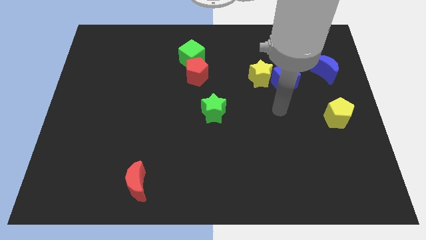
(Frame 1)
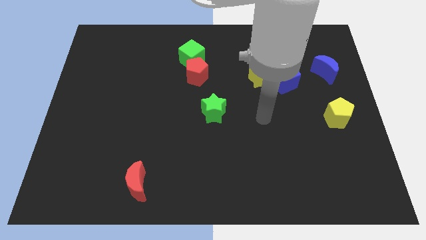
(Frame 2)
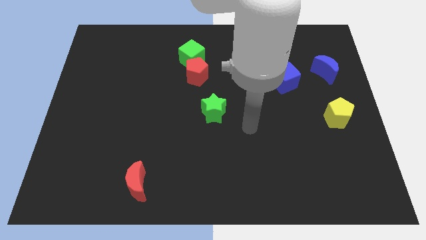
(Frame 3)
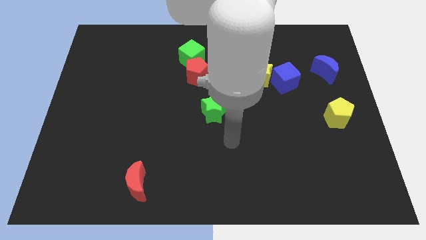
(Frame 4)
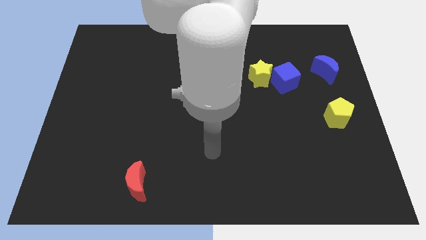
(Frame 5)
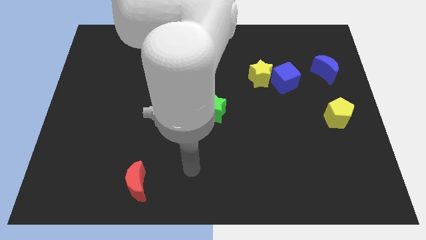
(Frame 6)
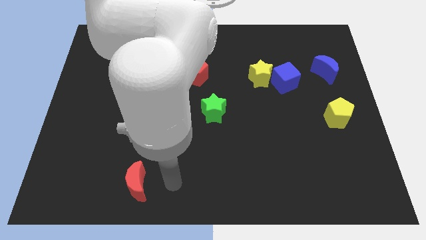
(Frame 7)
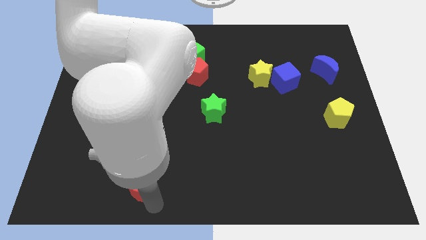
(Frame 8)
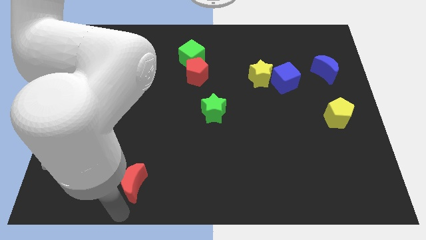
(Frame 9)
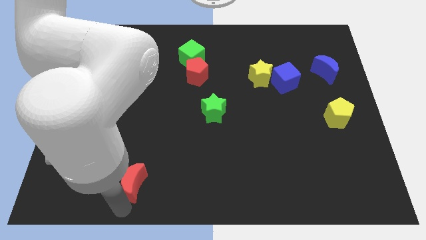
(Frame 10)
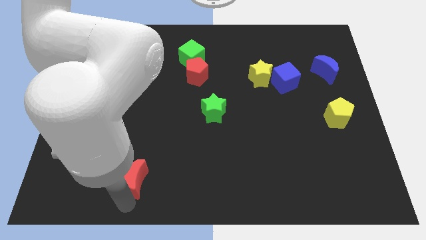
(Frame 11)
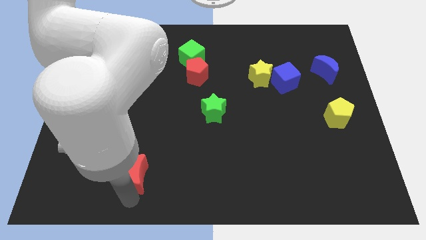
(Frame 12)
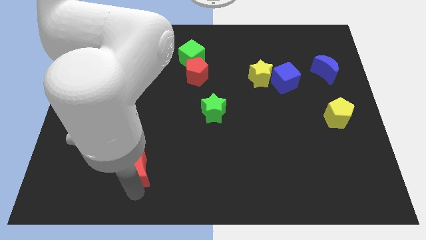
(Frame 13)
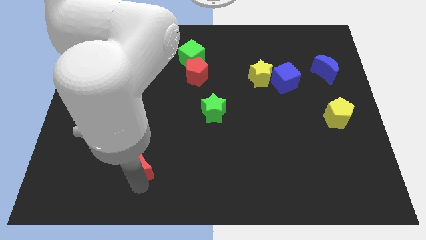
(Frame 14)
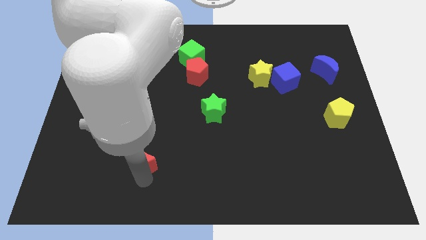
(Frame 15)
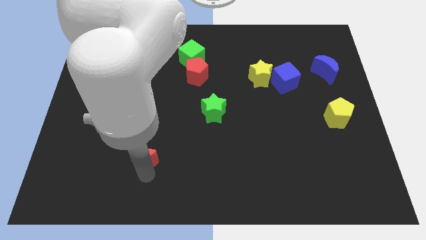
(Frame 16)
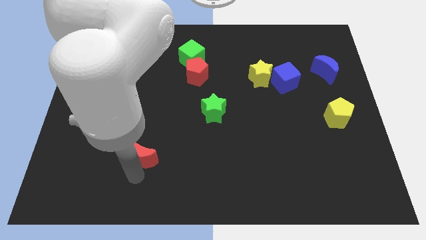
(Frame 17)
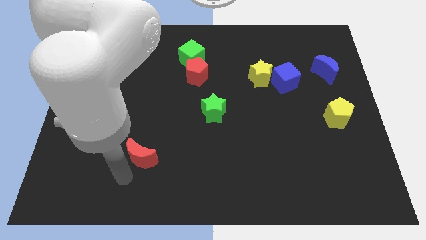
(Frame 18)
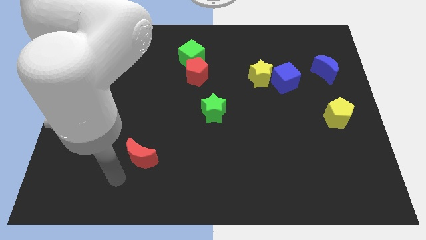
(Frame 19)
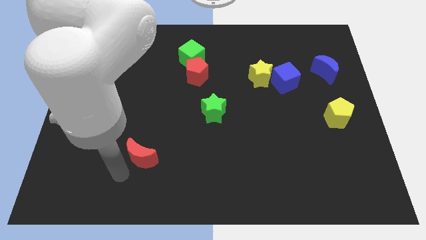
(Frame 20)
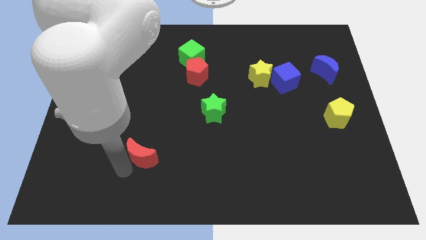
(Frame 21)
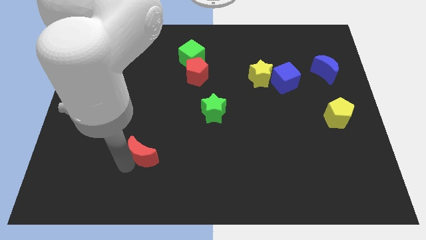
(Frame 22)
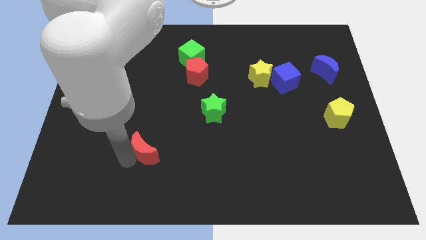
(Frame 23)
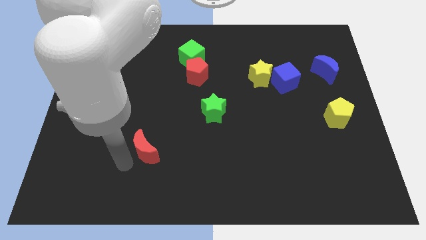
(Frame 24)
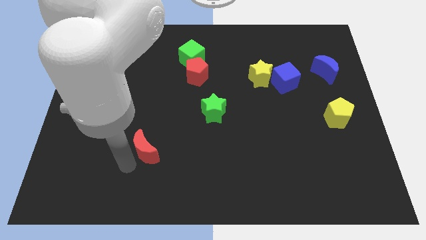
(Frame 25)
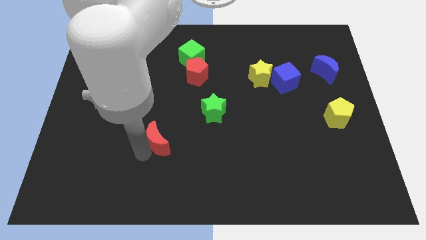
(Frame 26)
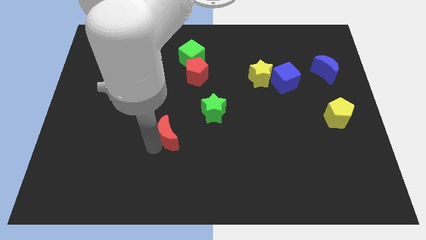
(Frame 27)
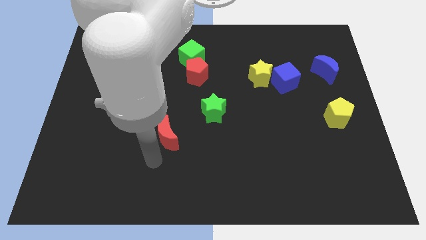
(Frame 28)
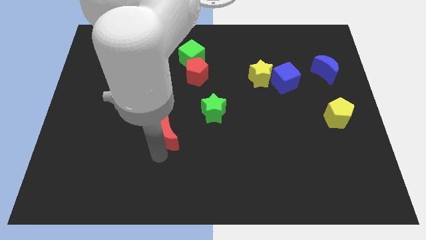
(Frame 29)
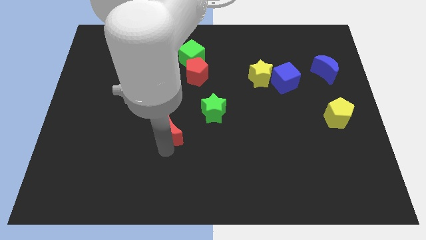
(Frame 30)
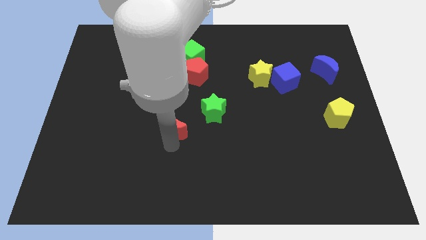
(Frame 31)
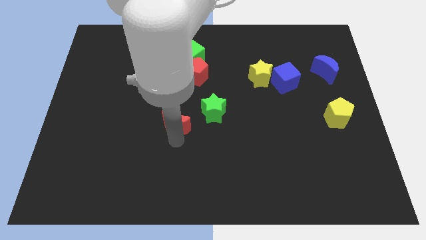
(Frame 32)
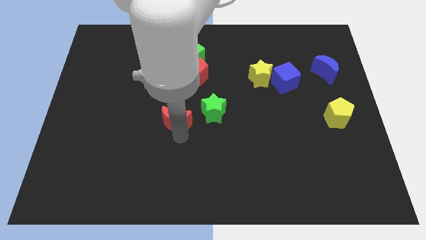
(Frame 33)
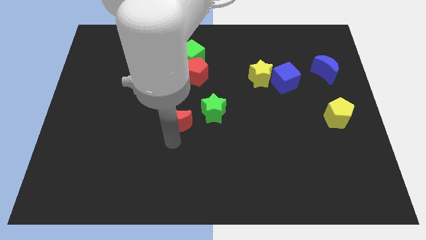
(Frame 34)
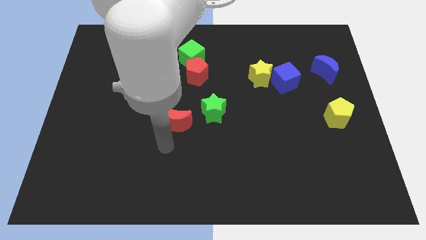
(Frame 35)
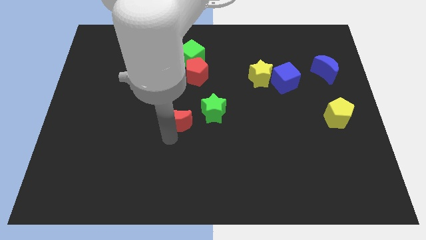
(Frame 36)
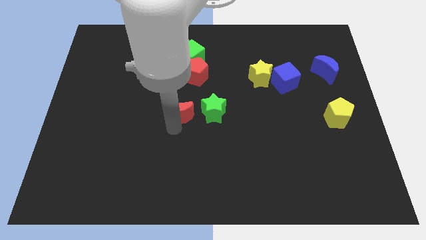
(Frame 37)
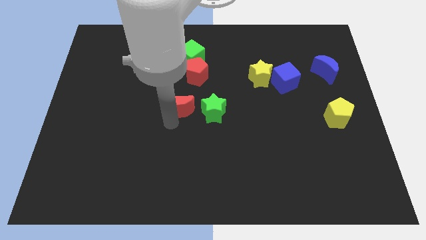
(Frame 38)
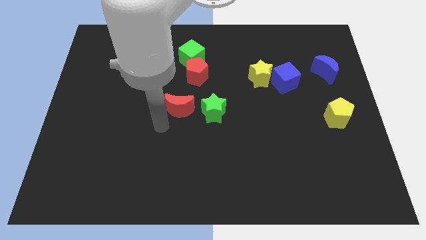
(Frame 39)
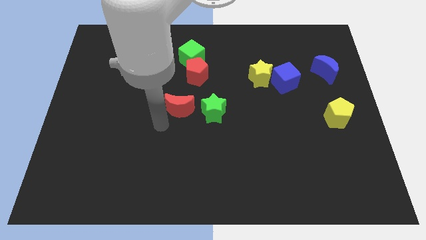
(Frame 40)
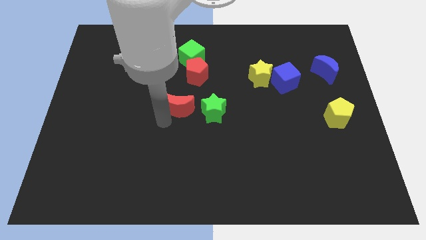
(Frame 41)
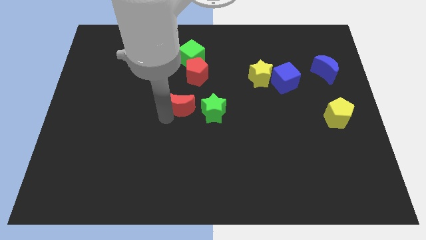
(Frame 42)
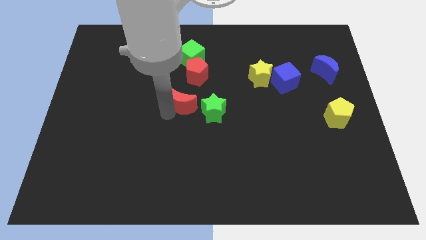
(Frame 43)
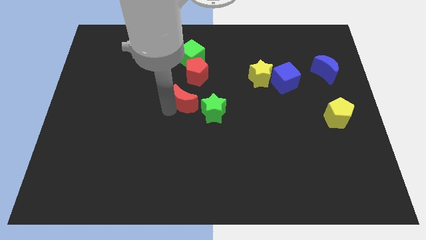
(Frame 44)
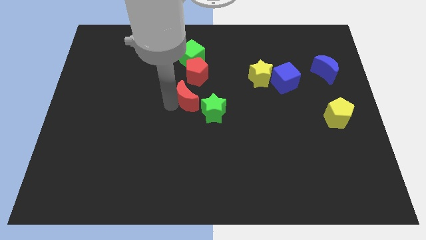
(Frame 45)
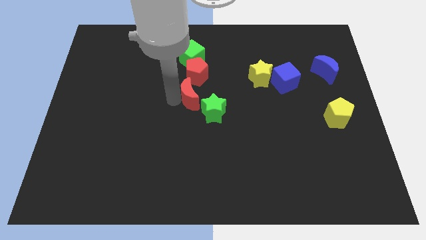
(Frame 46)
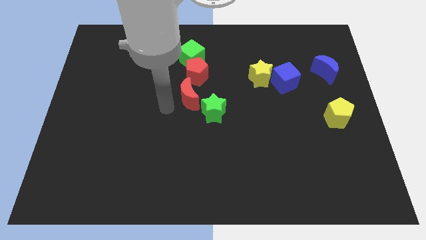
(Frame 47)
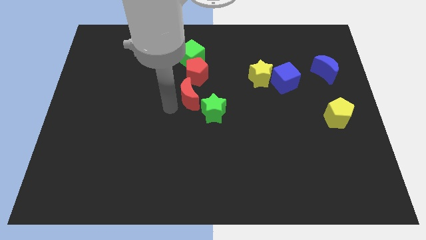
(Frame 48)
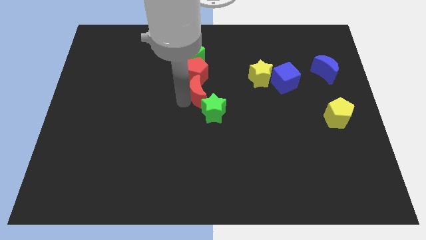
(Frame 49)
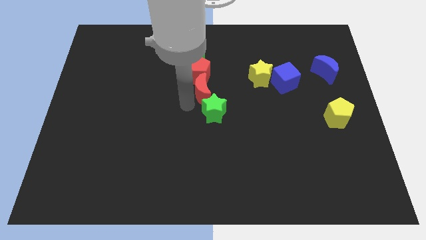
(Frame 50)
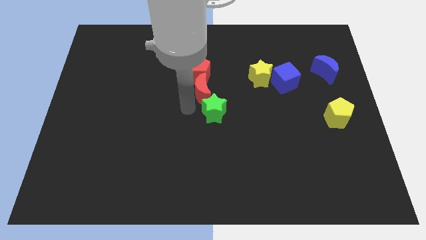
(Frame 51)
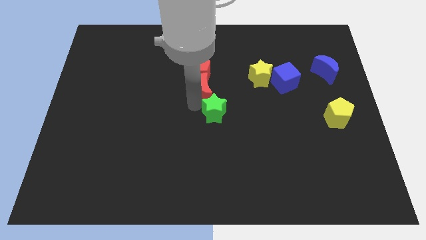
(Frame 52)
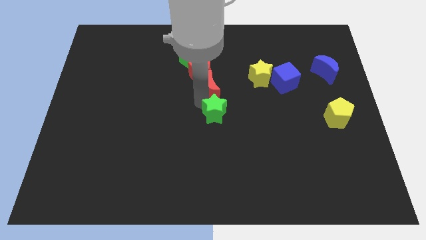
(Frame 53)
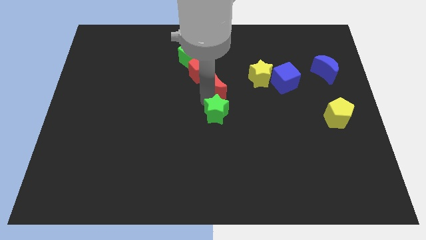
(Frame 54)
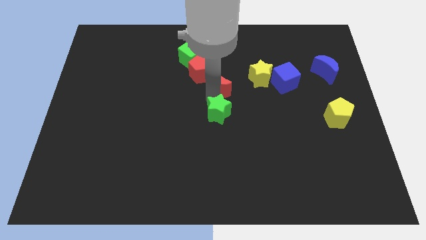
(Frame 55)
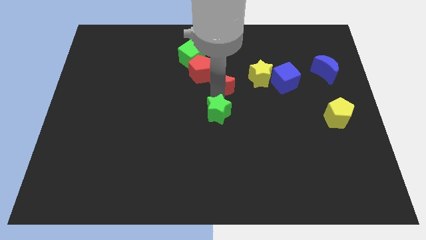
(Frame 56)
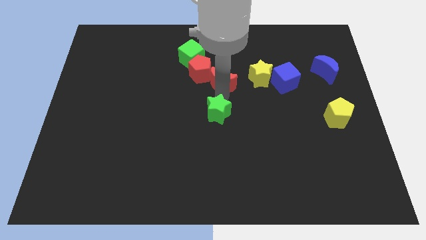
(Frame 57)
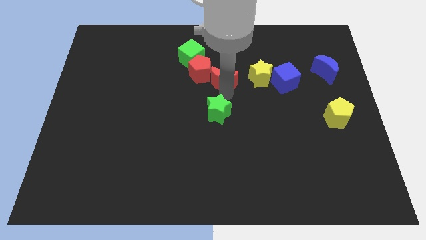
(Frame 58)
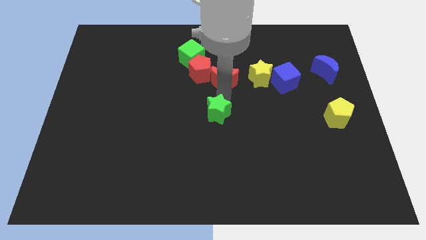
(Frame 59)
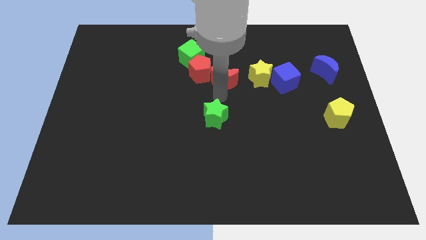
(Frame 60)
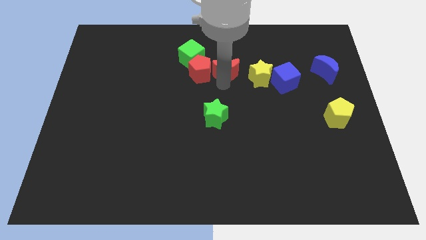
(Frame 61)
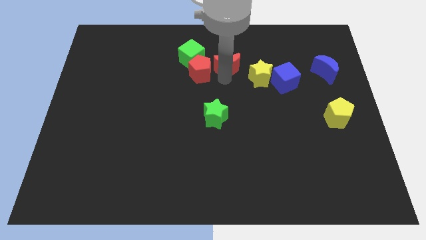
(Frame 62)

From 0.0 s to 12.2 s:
slide the red moon just right of the green cube

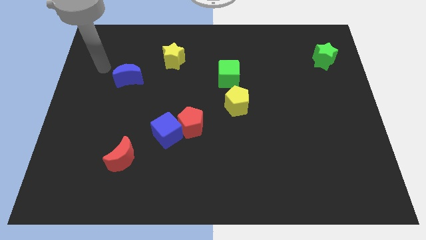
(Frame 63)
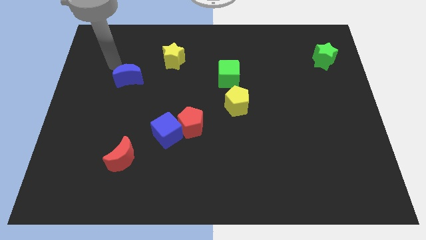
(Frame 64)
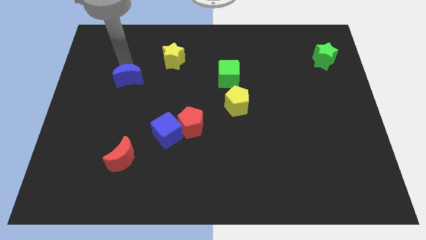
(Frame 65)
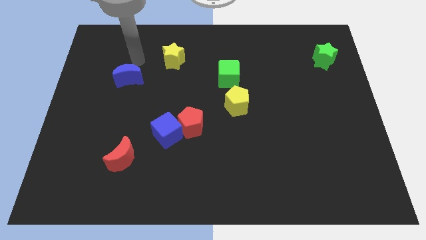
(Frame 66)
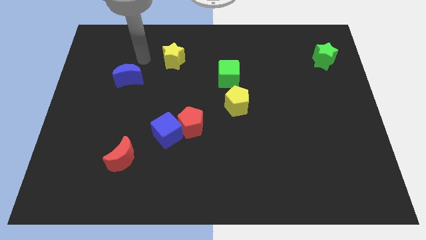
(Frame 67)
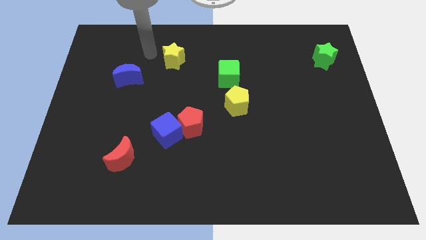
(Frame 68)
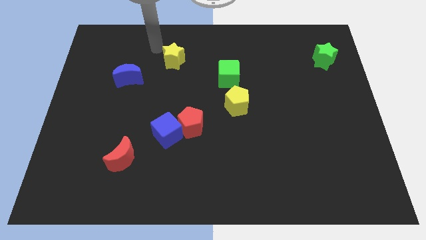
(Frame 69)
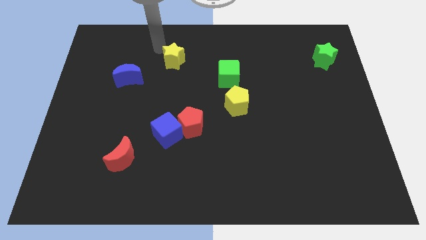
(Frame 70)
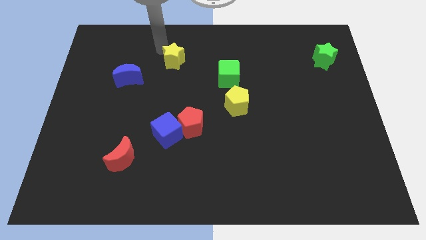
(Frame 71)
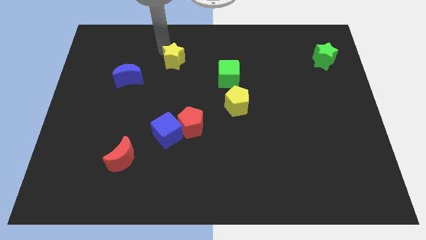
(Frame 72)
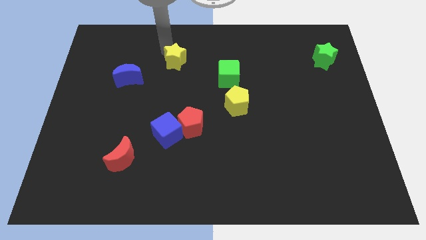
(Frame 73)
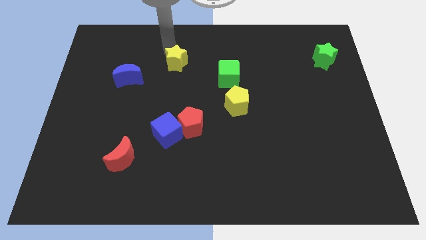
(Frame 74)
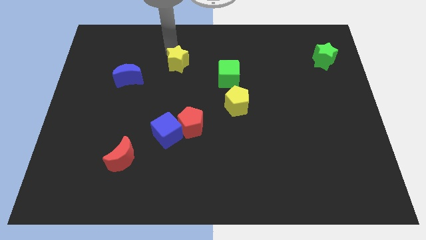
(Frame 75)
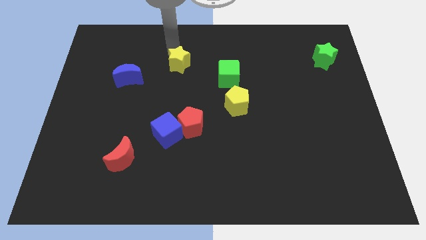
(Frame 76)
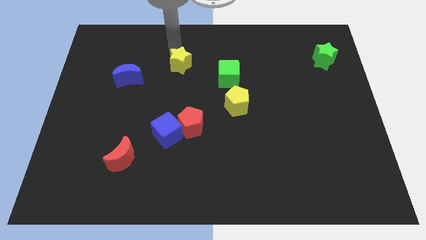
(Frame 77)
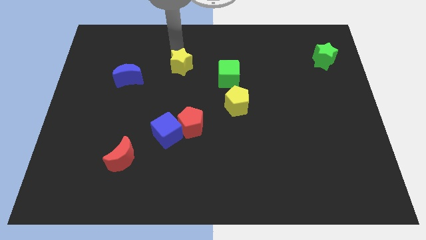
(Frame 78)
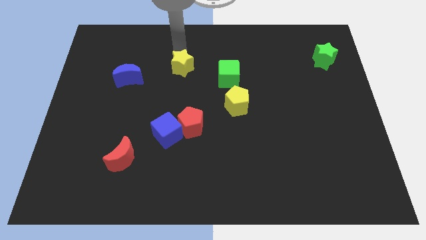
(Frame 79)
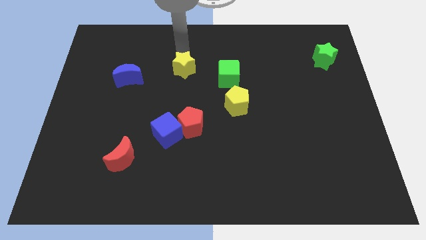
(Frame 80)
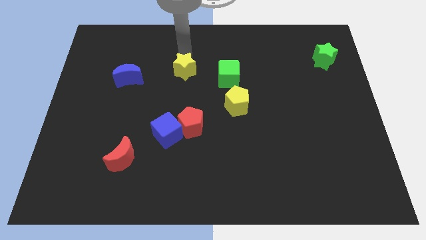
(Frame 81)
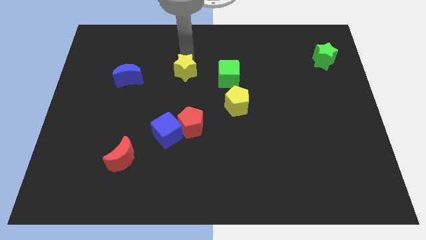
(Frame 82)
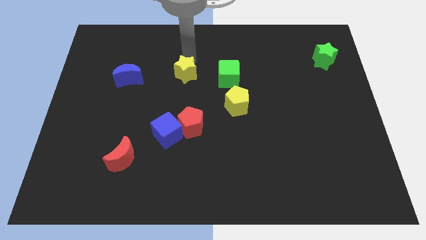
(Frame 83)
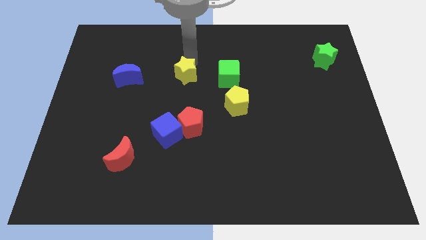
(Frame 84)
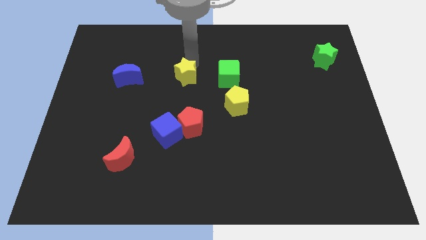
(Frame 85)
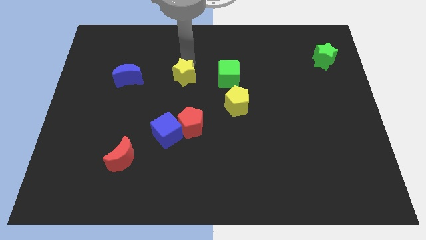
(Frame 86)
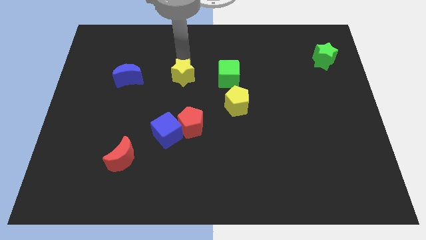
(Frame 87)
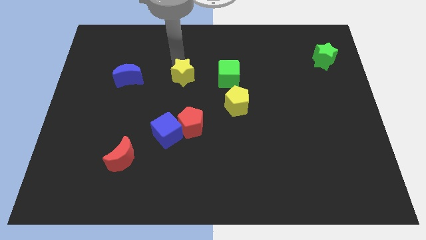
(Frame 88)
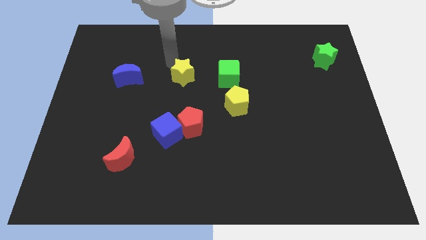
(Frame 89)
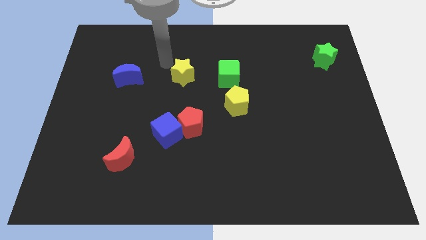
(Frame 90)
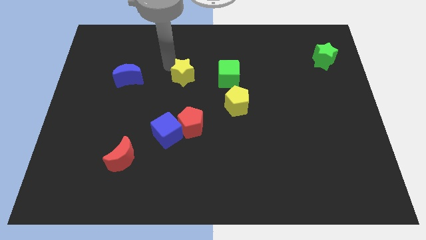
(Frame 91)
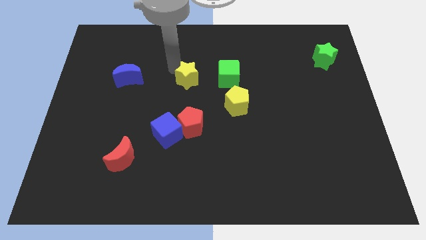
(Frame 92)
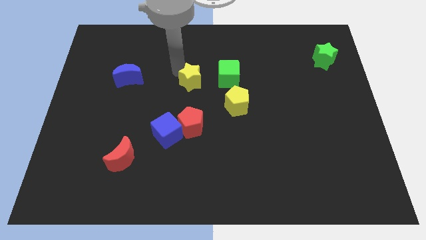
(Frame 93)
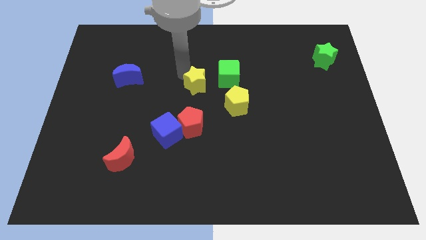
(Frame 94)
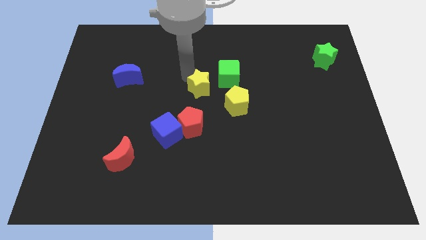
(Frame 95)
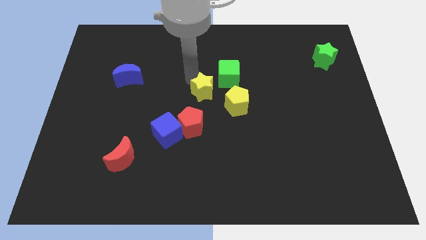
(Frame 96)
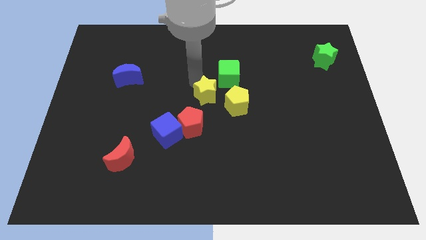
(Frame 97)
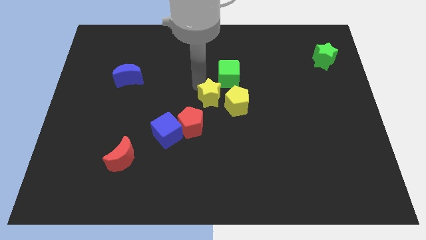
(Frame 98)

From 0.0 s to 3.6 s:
move the yellow star below the green cube
